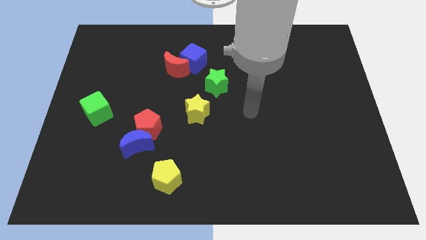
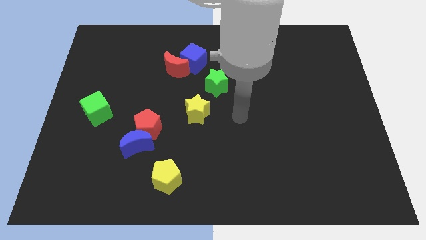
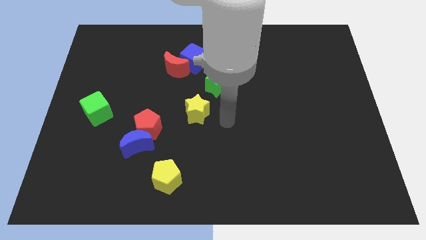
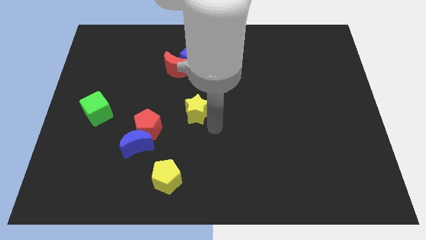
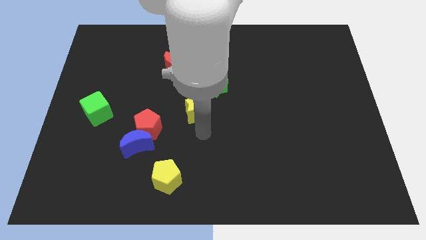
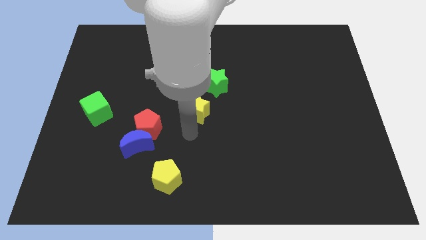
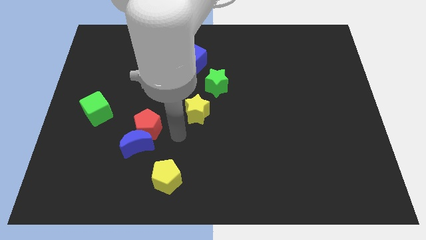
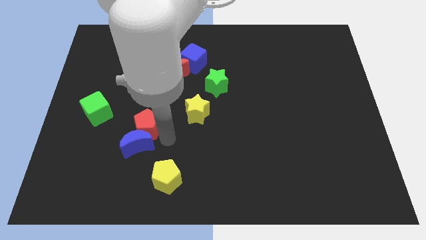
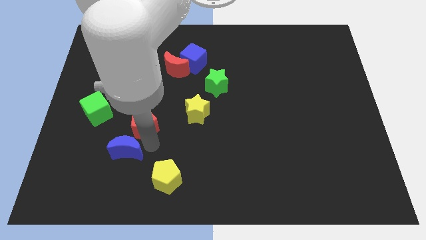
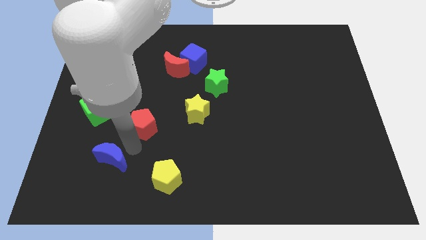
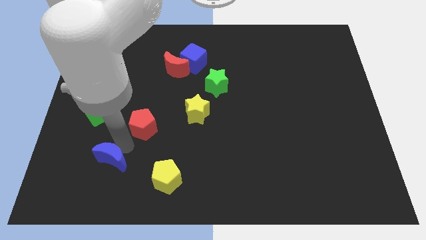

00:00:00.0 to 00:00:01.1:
separate the red pentagon from the blue moon

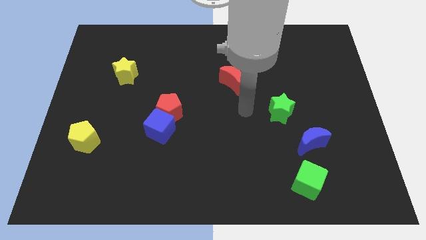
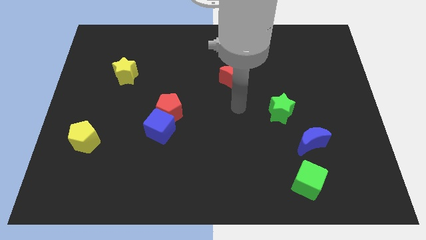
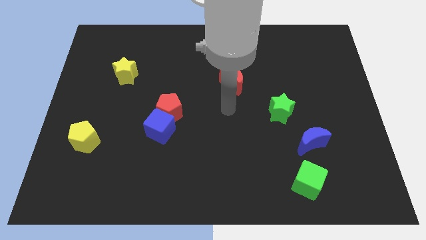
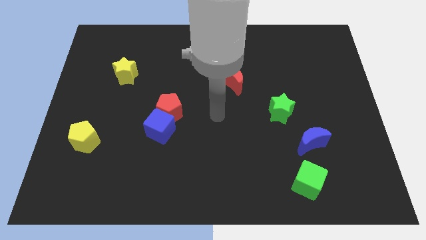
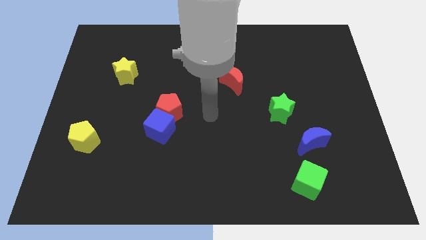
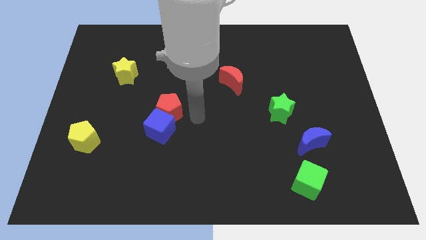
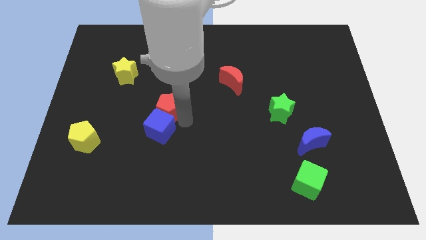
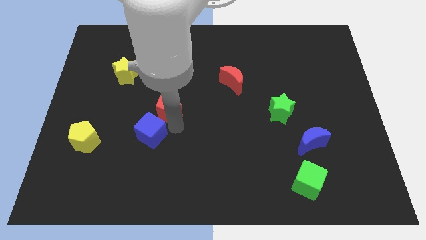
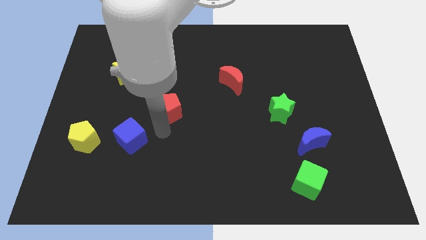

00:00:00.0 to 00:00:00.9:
pull the red pentagon apart from the blue cube

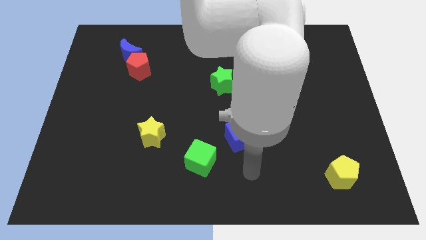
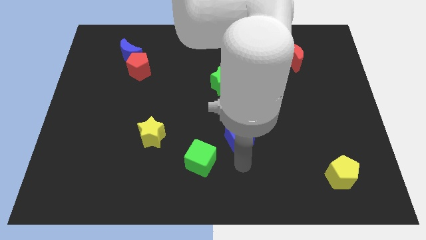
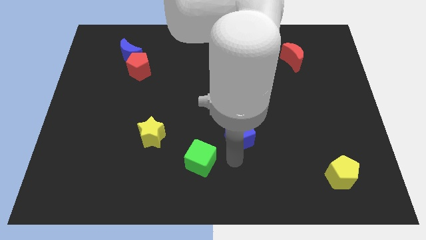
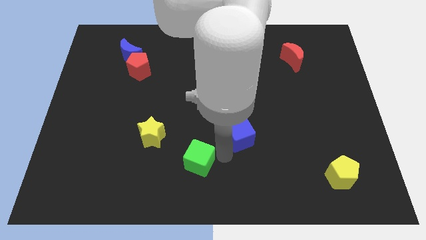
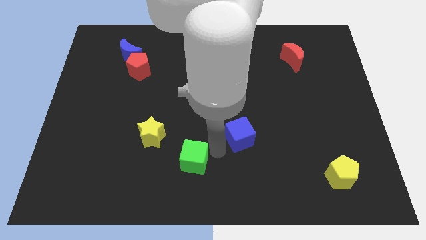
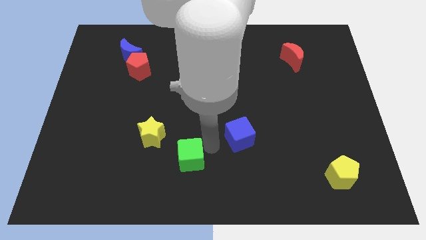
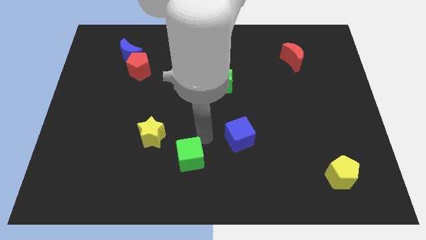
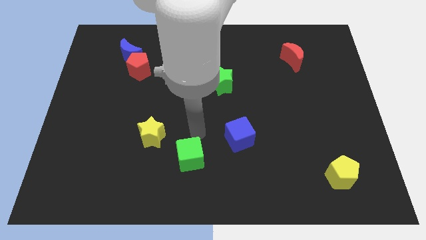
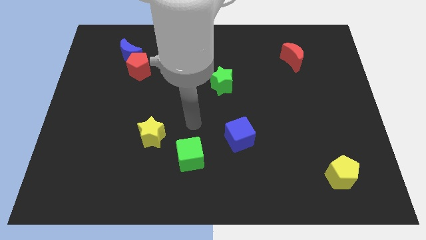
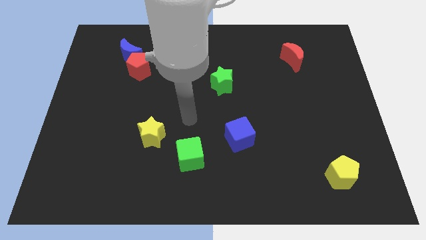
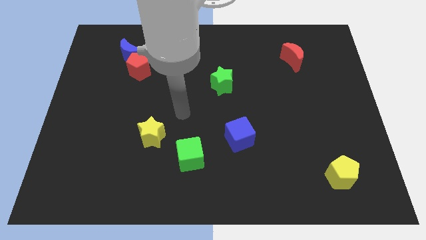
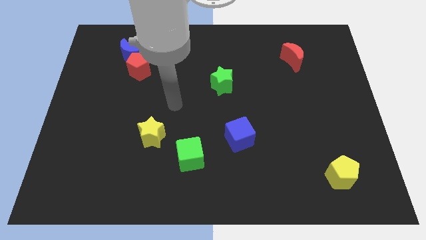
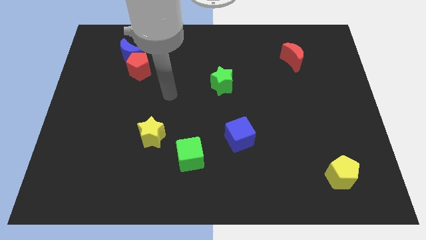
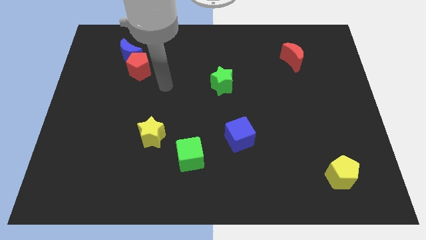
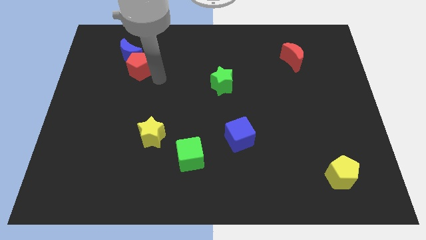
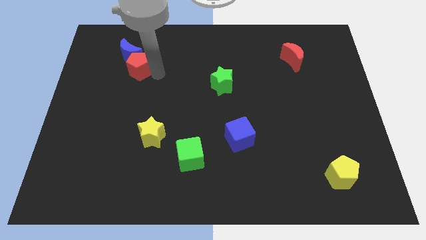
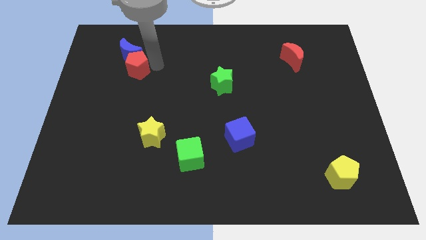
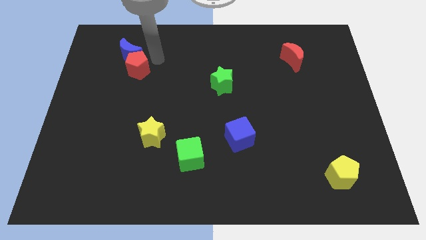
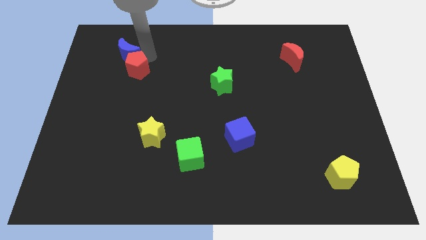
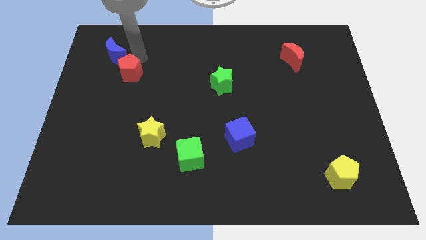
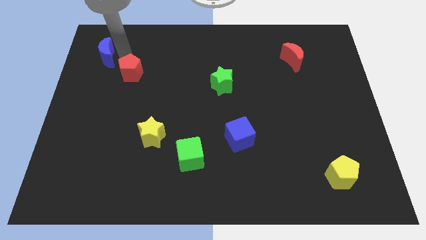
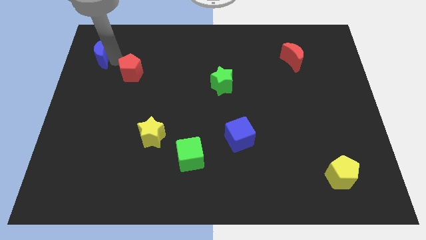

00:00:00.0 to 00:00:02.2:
pull the red pentagon apart from the blue moon

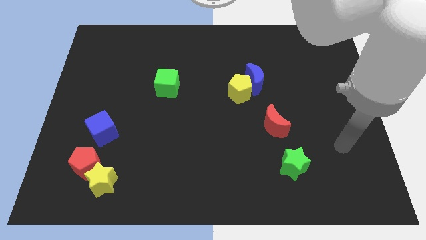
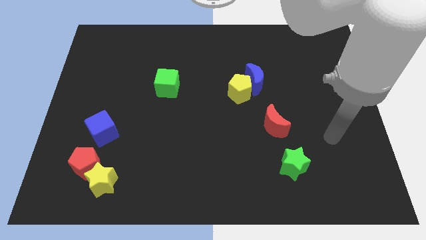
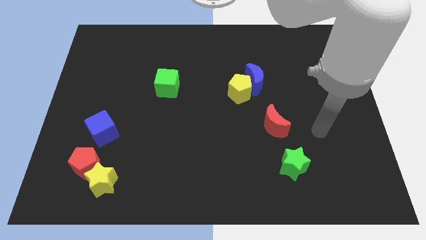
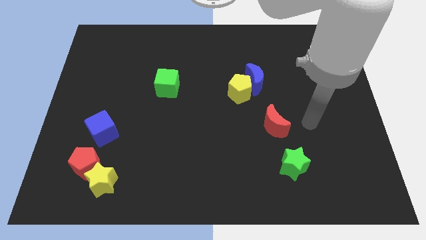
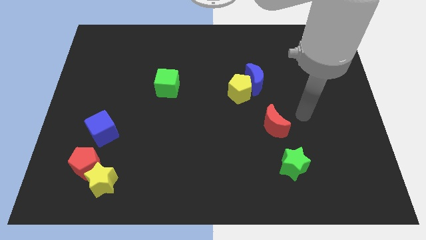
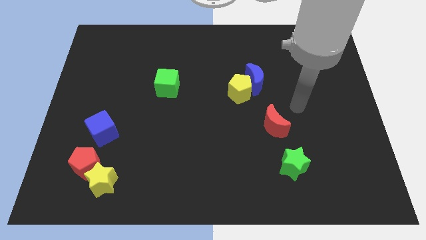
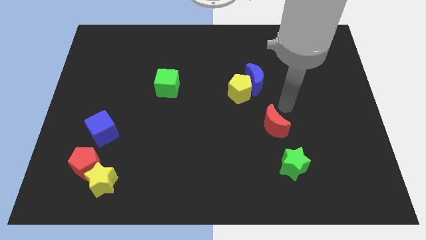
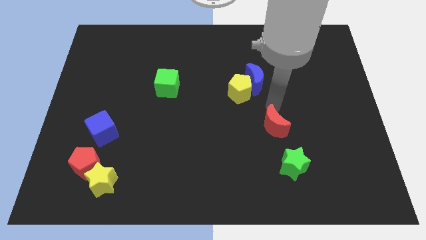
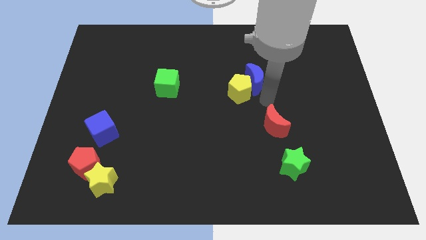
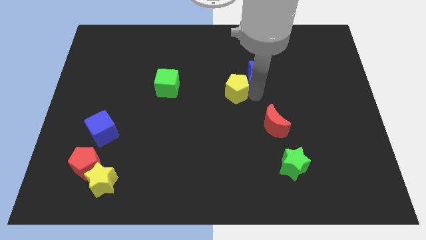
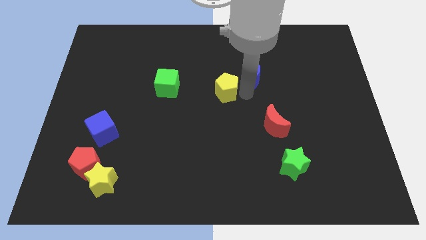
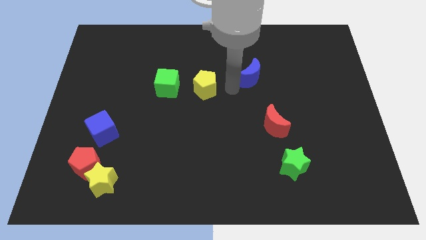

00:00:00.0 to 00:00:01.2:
separate the blue moon from the yellow pentagon

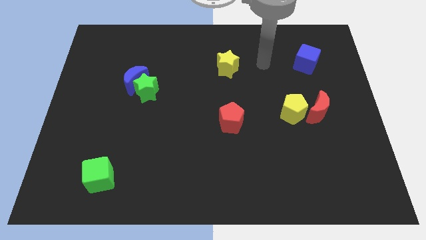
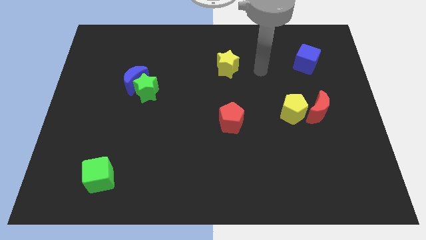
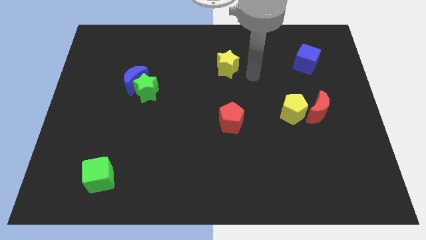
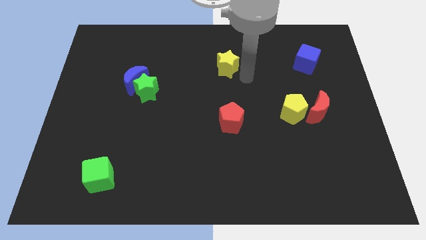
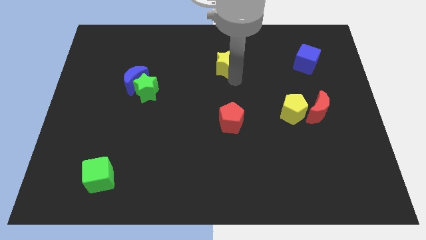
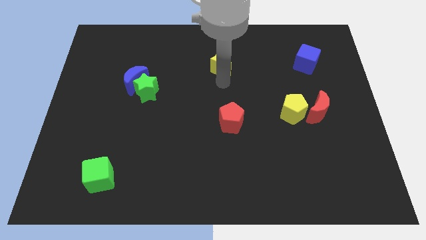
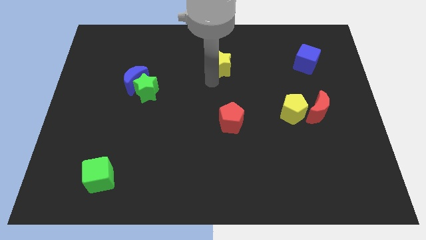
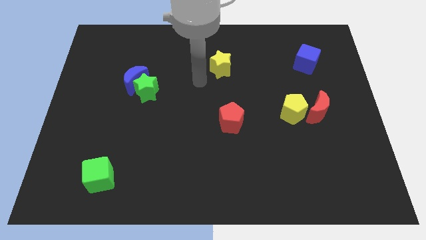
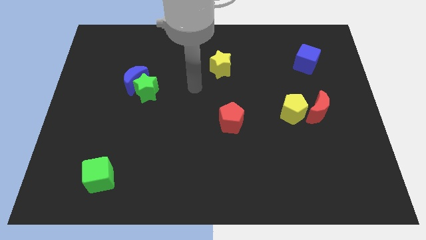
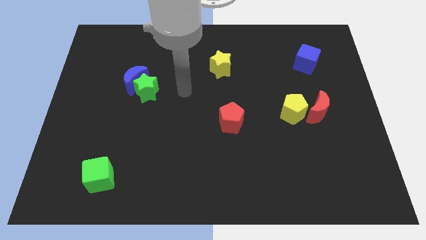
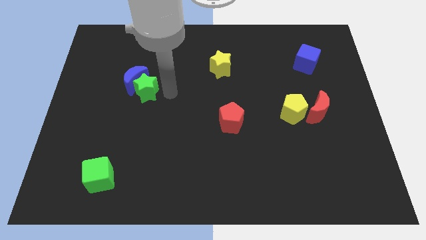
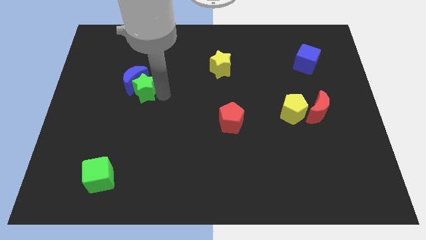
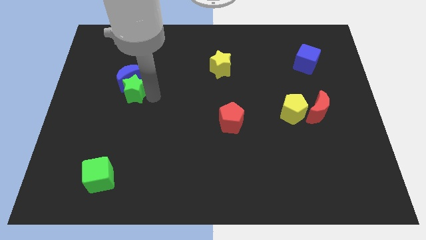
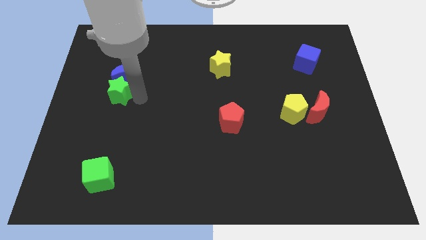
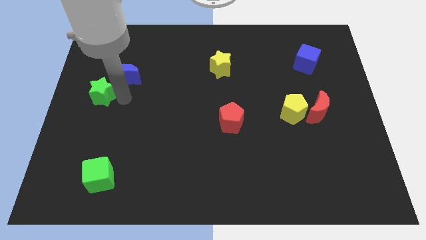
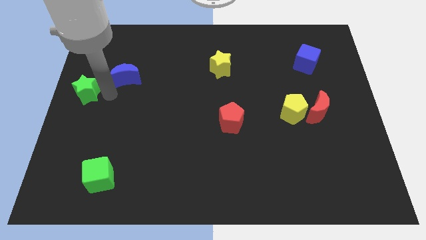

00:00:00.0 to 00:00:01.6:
separate the blue moon from the green star

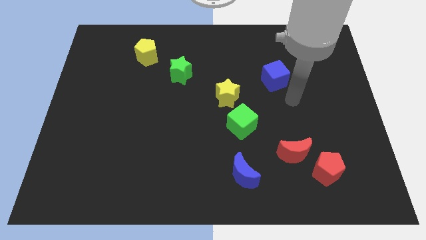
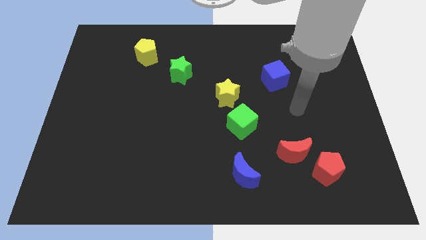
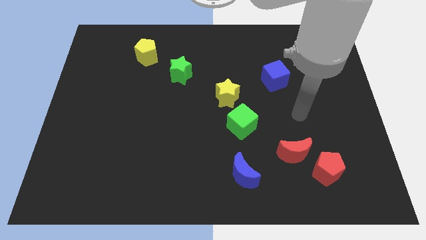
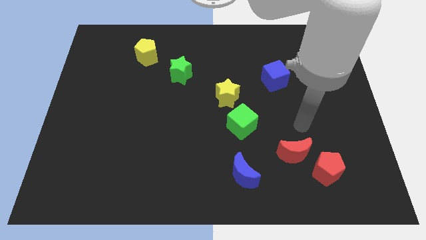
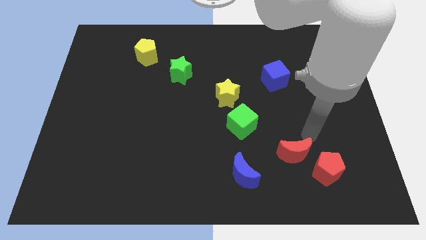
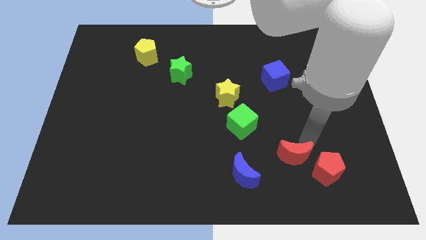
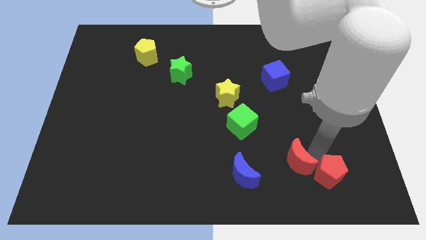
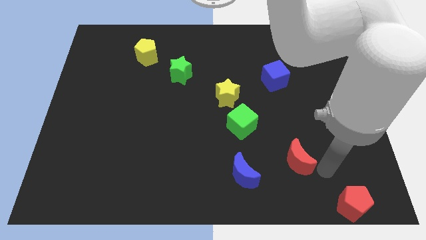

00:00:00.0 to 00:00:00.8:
move the red moon away from the red pentagon

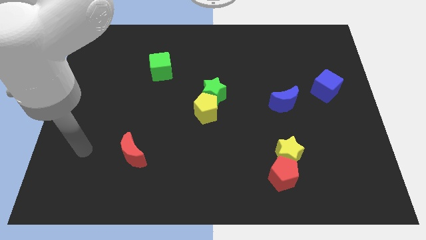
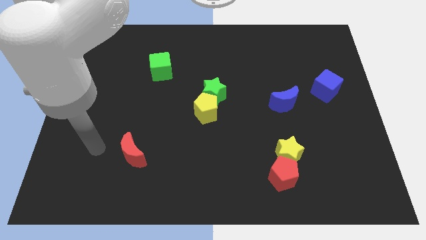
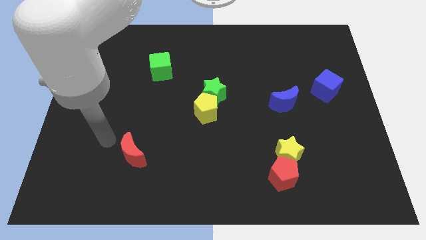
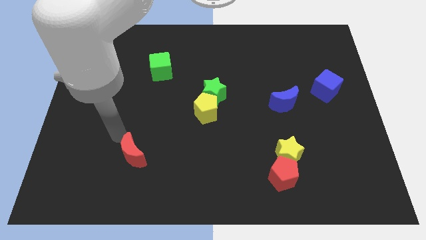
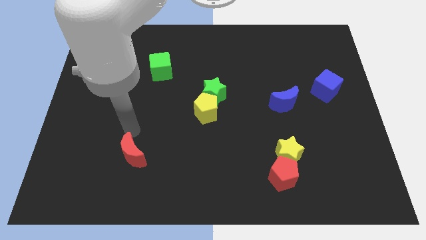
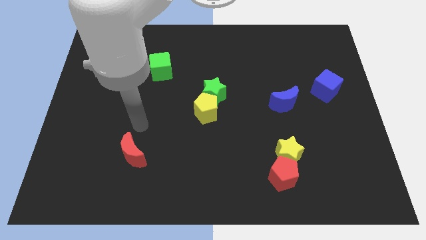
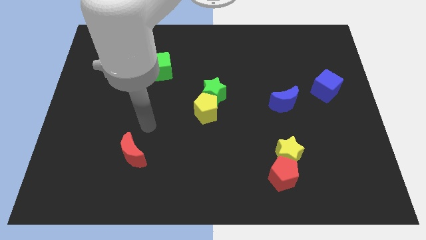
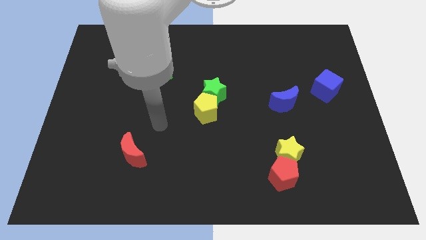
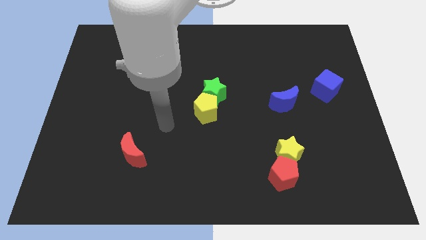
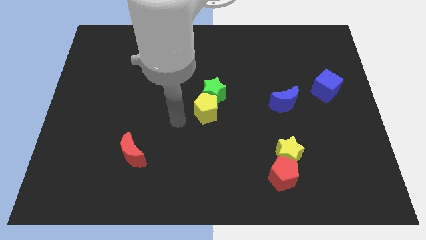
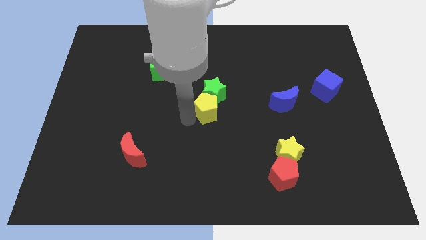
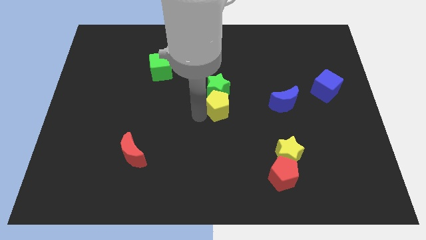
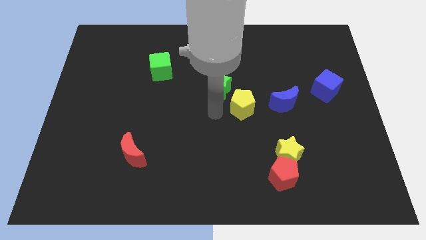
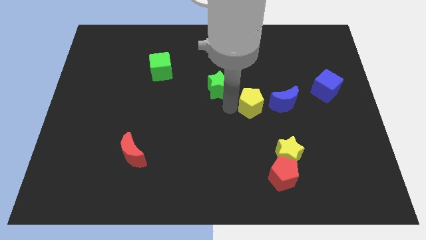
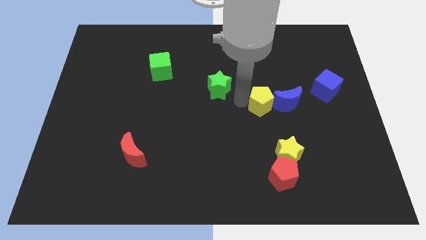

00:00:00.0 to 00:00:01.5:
separate the green star from the yellow pentagon
